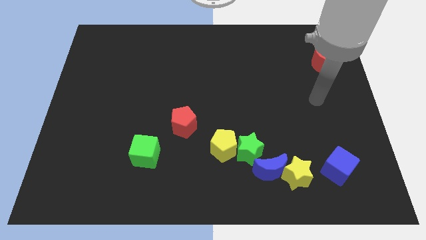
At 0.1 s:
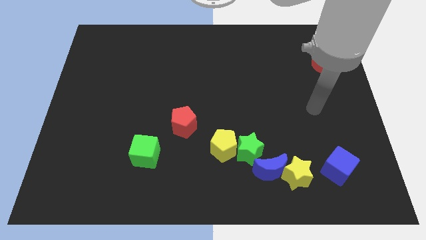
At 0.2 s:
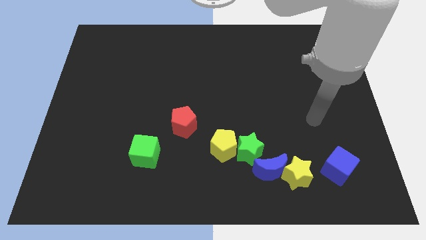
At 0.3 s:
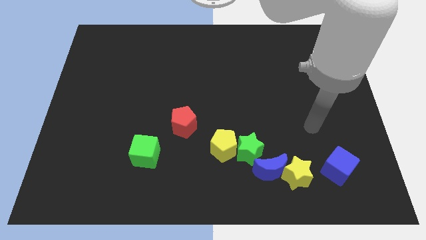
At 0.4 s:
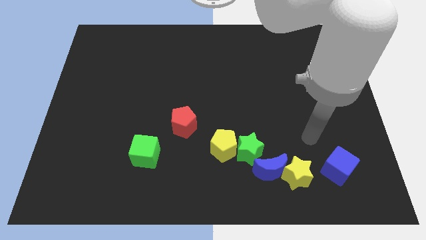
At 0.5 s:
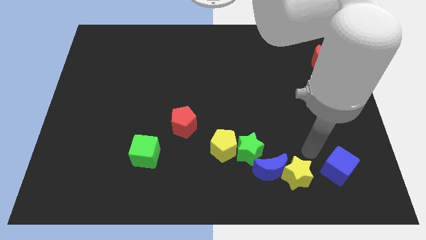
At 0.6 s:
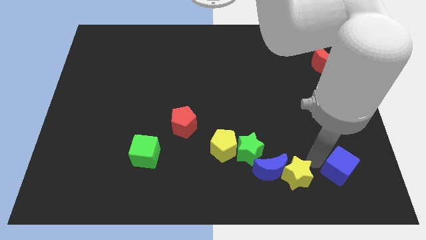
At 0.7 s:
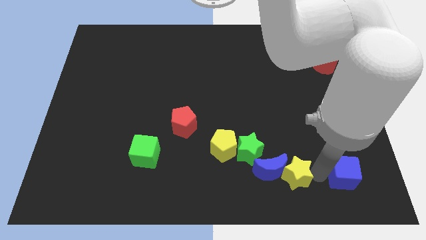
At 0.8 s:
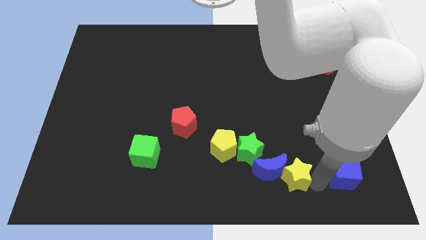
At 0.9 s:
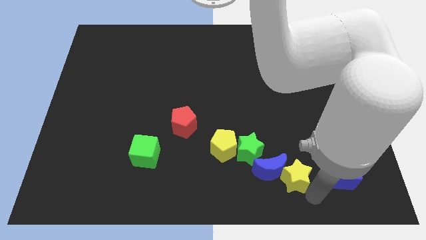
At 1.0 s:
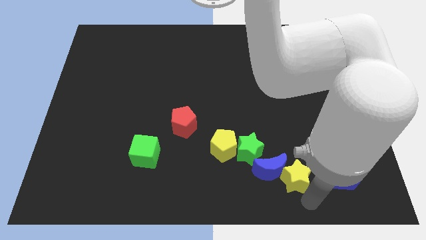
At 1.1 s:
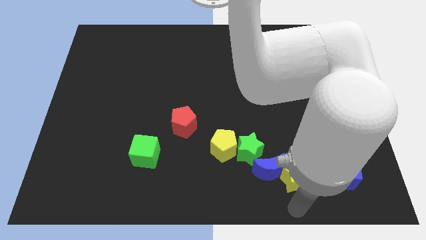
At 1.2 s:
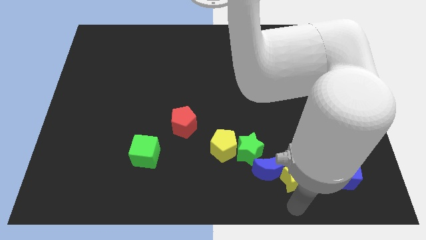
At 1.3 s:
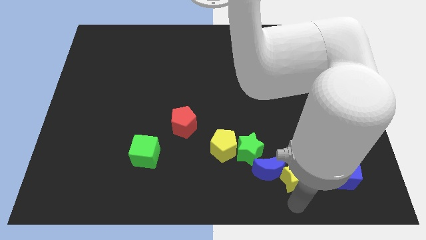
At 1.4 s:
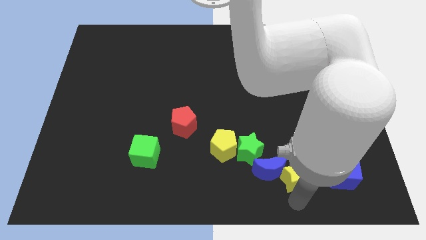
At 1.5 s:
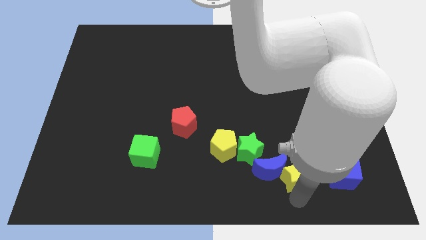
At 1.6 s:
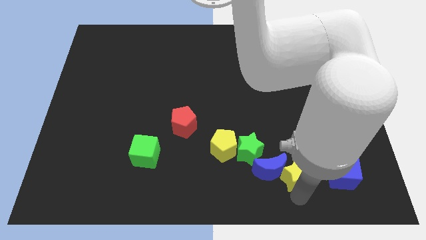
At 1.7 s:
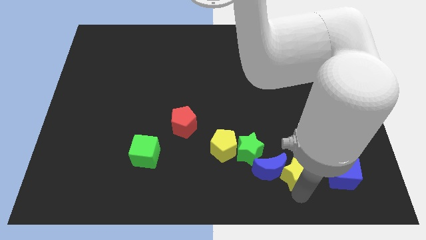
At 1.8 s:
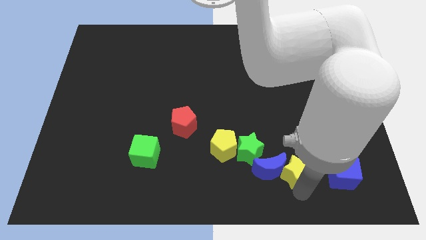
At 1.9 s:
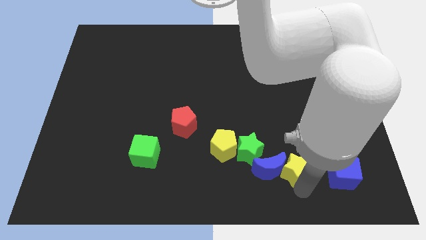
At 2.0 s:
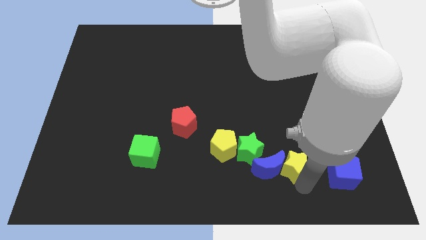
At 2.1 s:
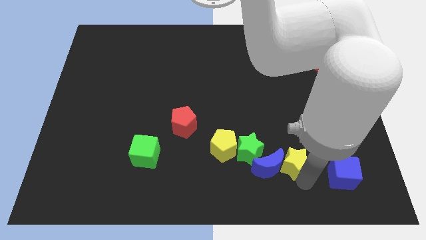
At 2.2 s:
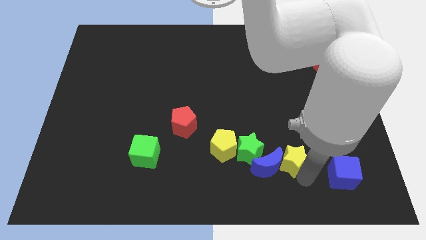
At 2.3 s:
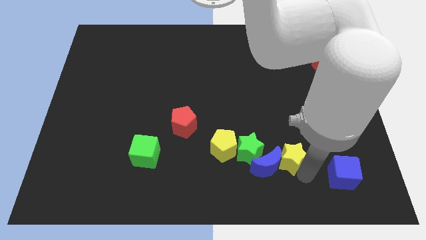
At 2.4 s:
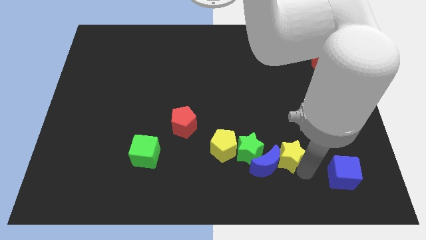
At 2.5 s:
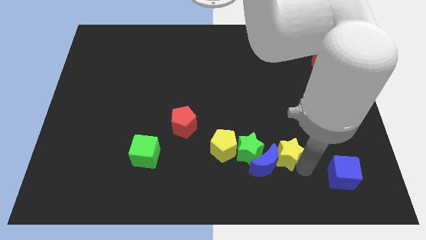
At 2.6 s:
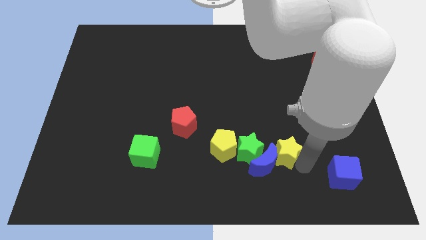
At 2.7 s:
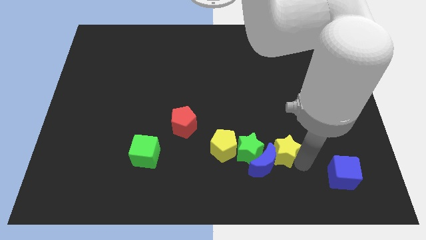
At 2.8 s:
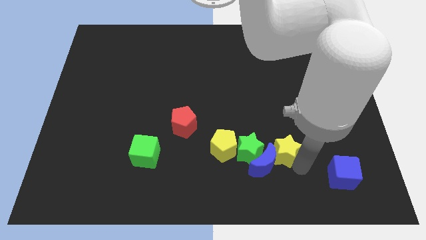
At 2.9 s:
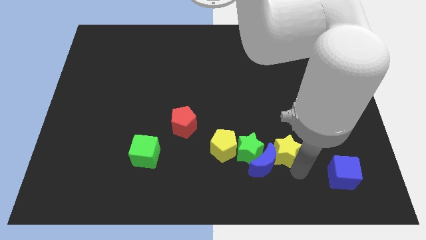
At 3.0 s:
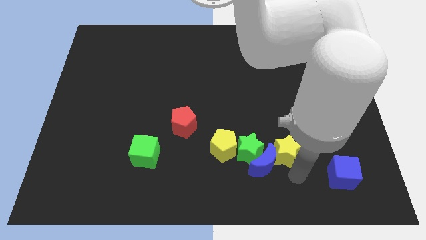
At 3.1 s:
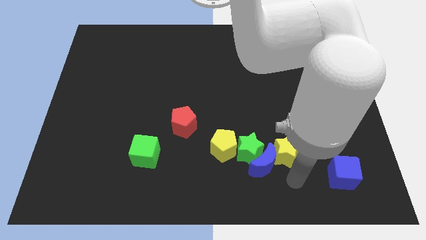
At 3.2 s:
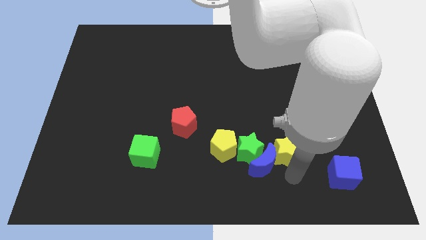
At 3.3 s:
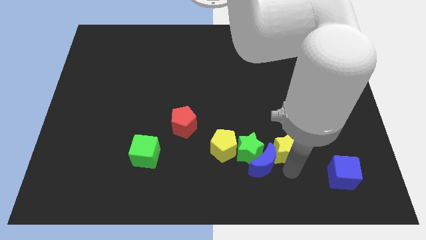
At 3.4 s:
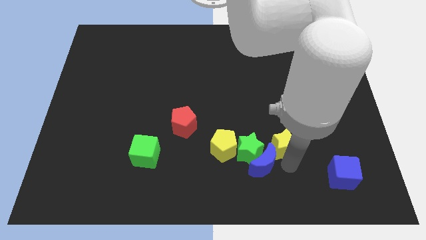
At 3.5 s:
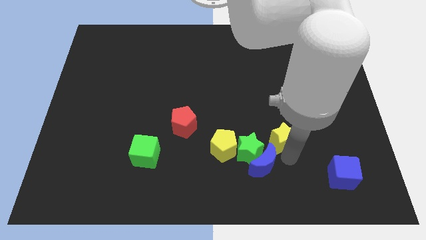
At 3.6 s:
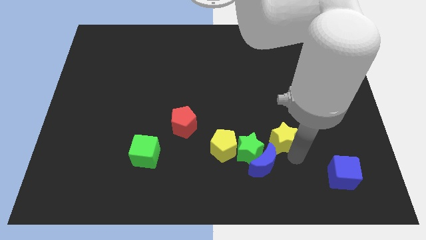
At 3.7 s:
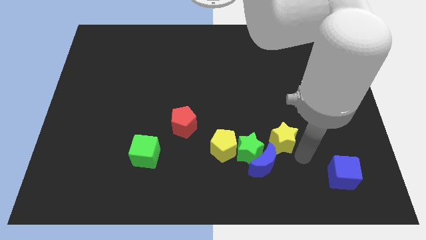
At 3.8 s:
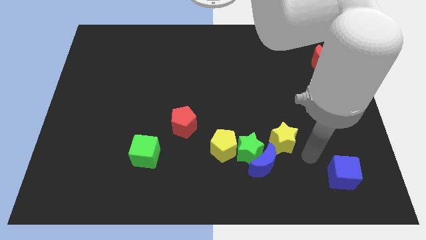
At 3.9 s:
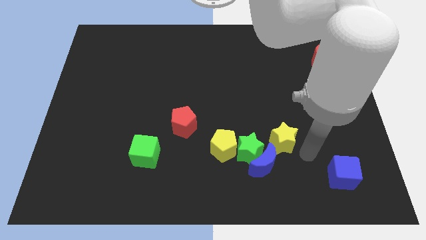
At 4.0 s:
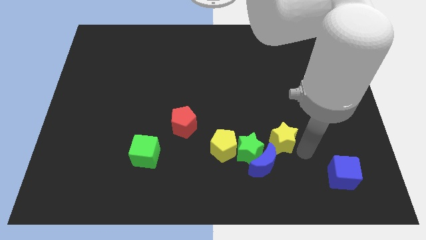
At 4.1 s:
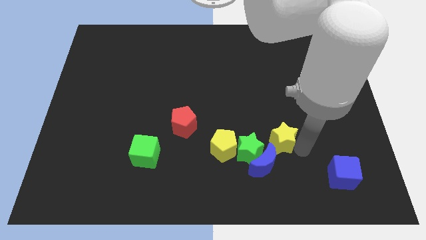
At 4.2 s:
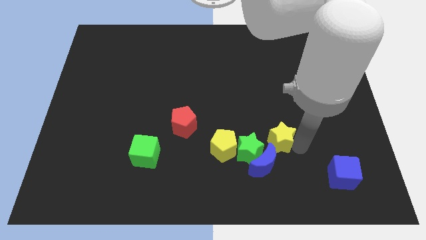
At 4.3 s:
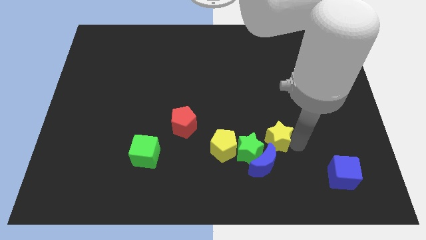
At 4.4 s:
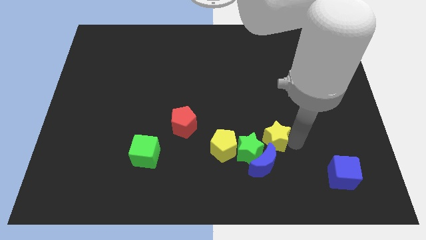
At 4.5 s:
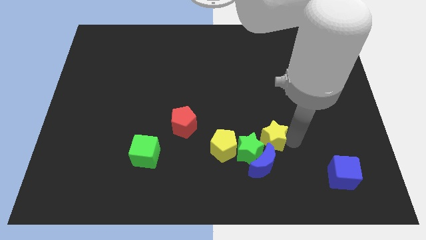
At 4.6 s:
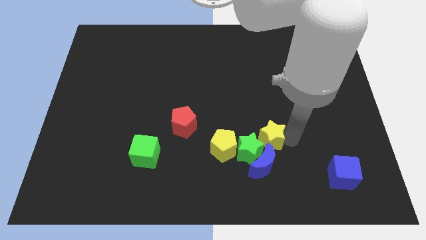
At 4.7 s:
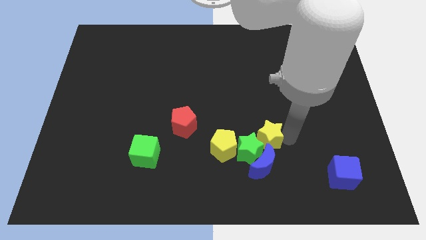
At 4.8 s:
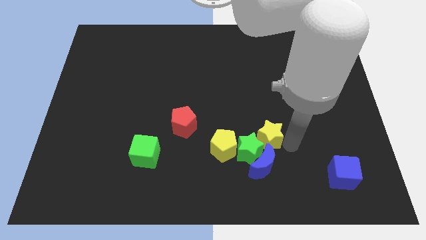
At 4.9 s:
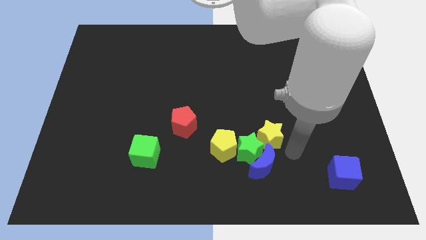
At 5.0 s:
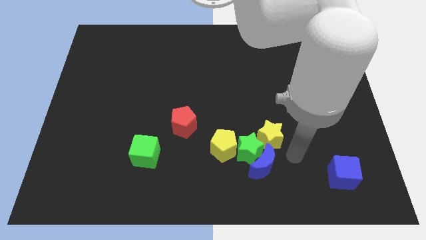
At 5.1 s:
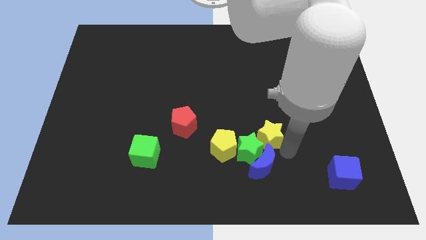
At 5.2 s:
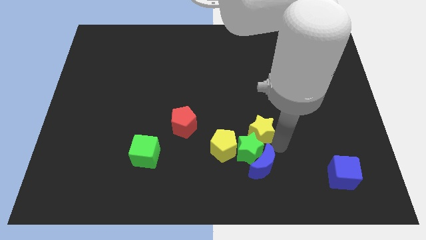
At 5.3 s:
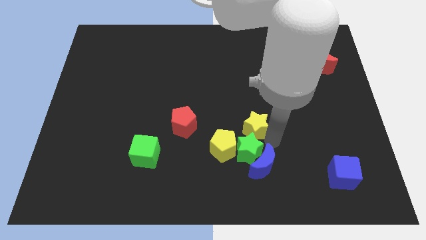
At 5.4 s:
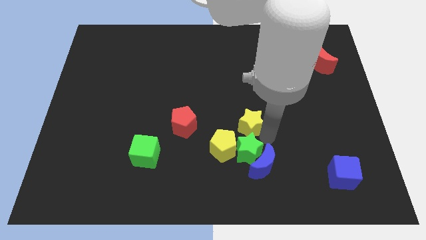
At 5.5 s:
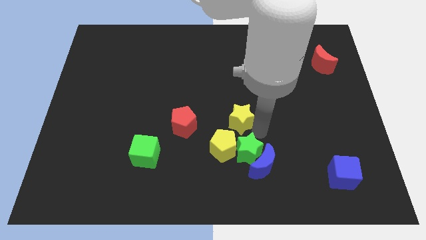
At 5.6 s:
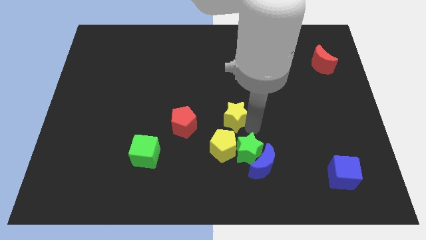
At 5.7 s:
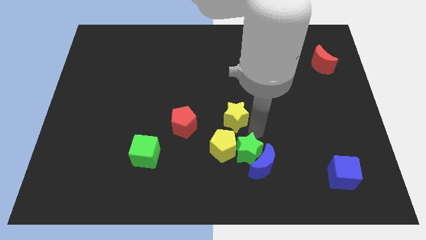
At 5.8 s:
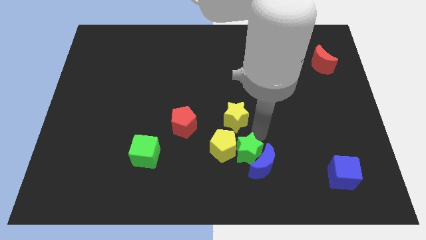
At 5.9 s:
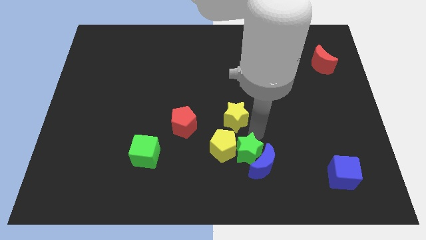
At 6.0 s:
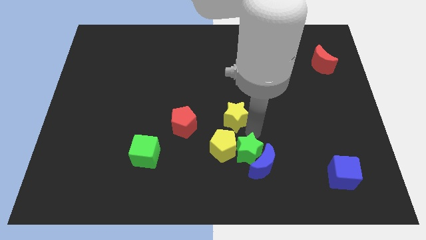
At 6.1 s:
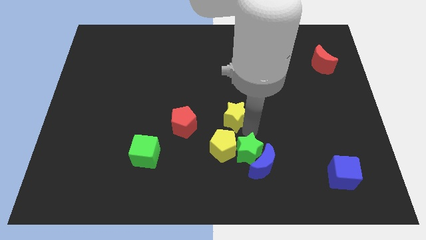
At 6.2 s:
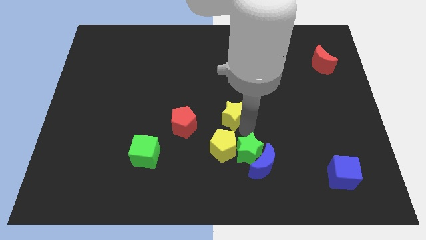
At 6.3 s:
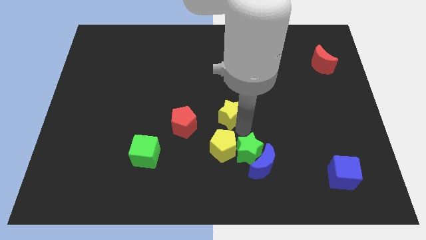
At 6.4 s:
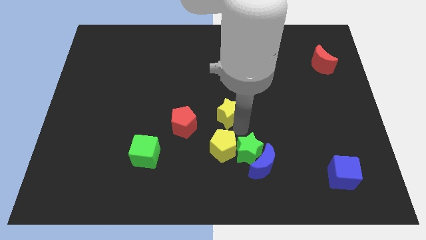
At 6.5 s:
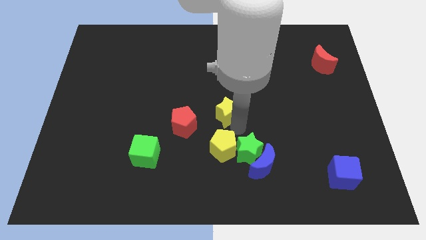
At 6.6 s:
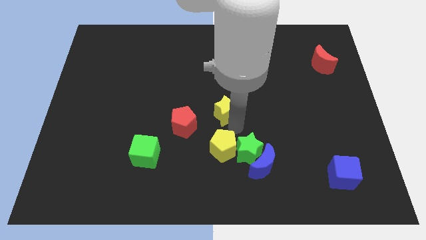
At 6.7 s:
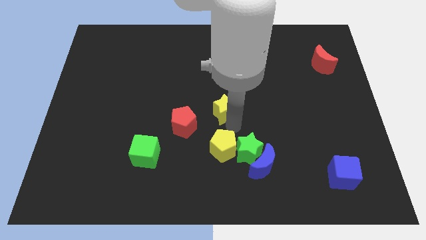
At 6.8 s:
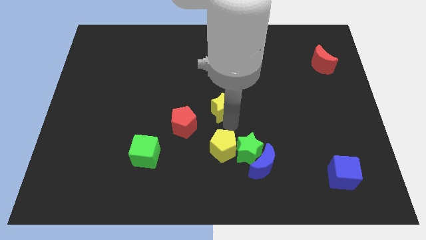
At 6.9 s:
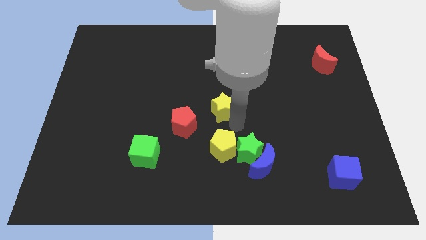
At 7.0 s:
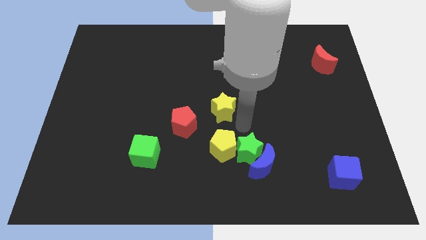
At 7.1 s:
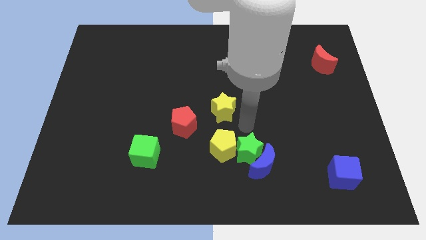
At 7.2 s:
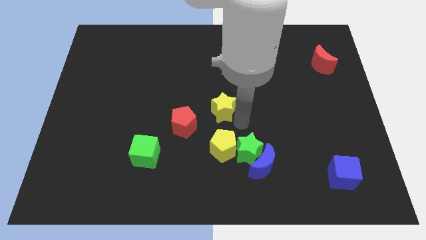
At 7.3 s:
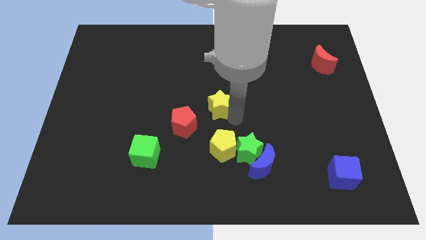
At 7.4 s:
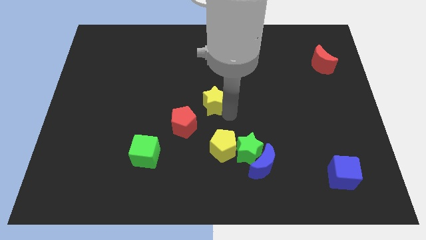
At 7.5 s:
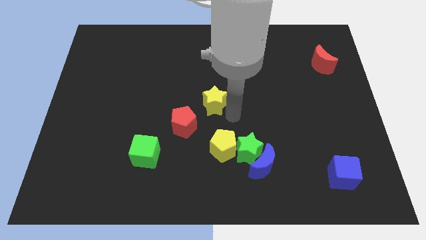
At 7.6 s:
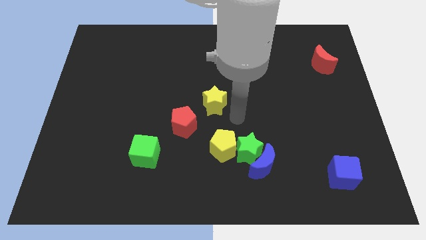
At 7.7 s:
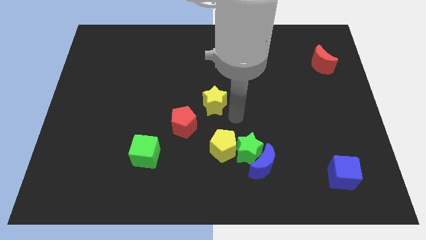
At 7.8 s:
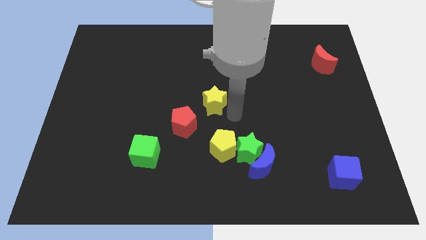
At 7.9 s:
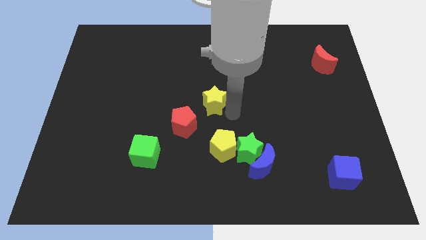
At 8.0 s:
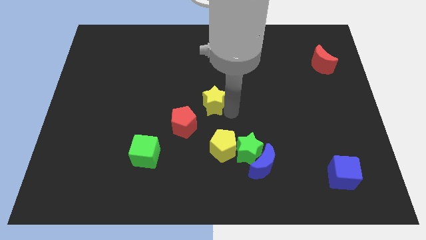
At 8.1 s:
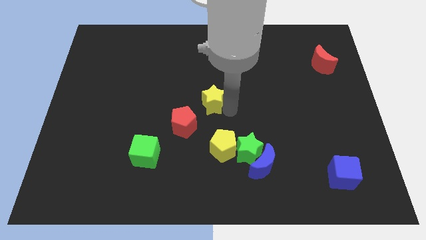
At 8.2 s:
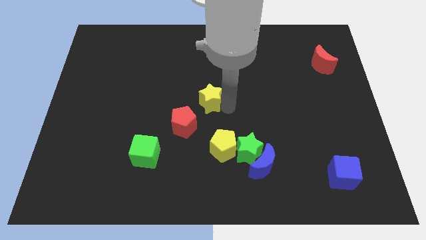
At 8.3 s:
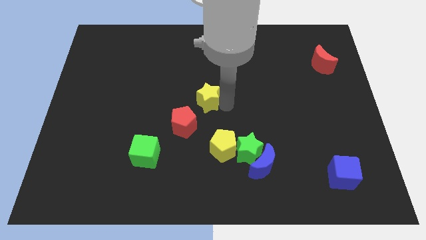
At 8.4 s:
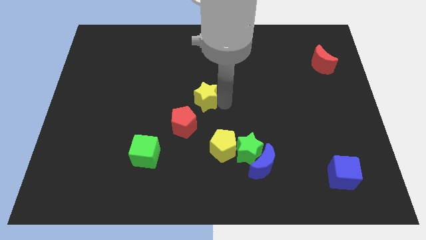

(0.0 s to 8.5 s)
put the yellow star to the top side of the red pentagon
